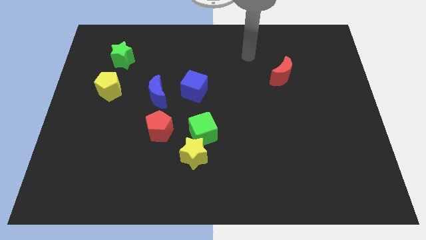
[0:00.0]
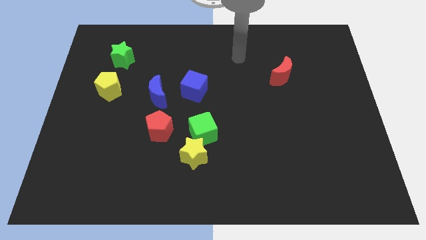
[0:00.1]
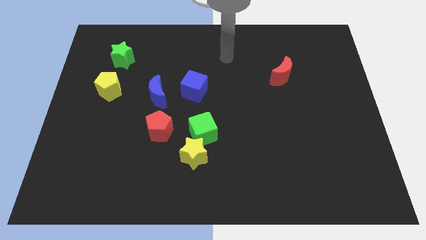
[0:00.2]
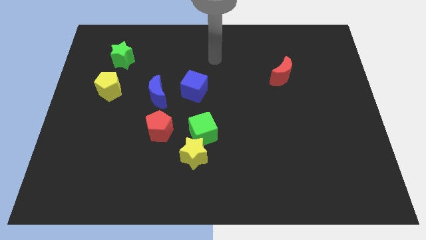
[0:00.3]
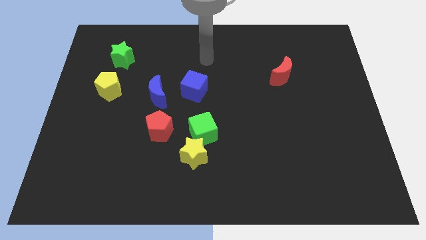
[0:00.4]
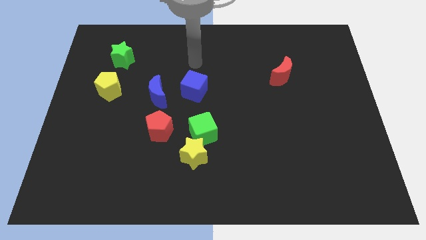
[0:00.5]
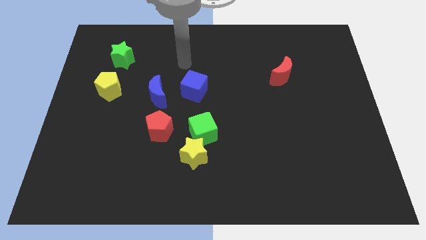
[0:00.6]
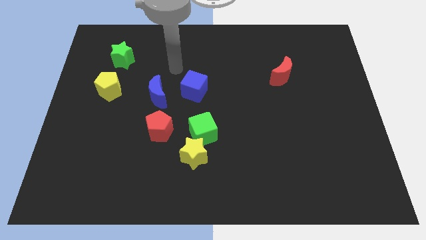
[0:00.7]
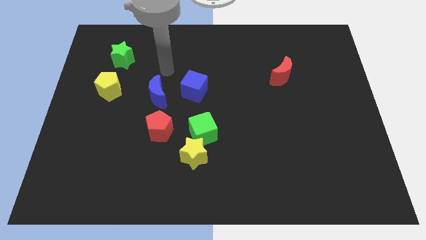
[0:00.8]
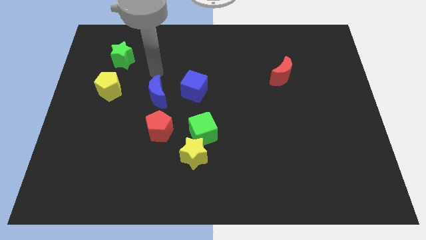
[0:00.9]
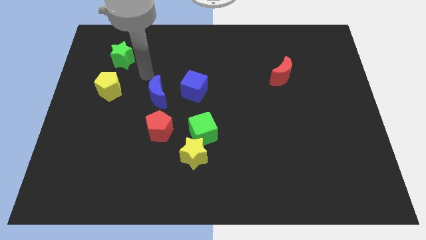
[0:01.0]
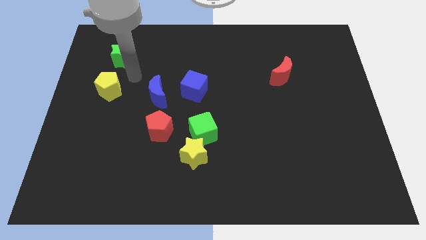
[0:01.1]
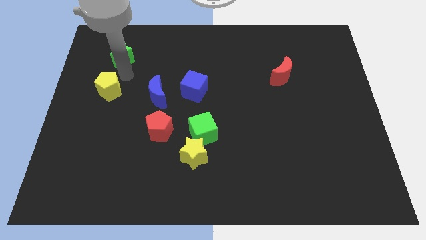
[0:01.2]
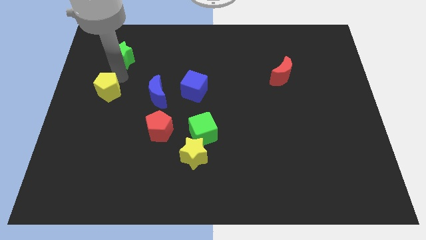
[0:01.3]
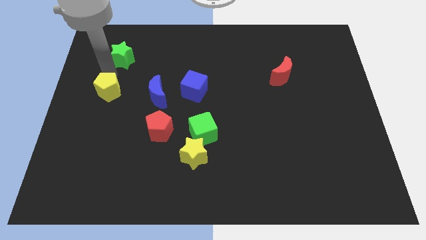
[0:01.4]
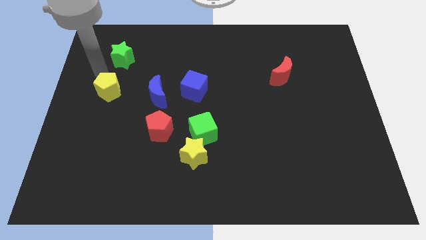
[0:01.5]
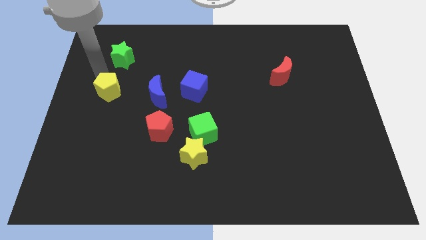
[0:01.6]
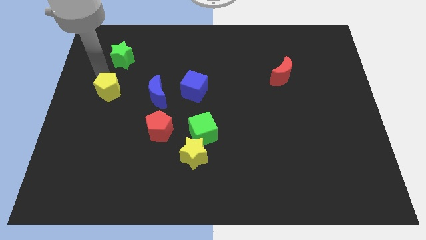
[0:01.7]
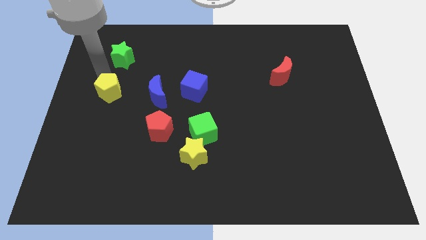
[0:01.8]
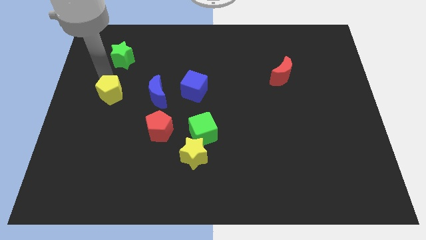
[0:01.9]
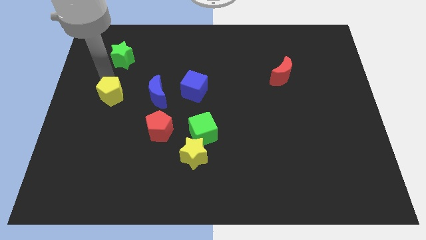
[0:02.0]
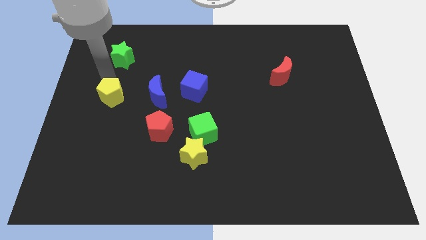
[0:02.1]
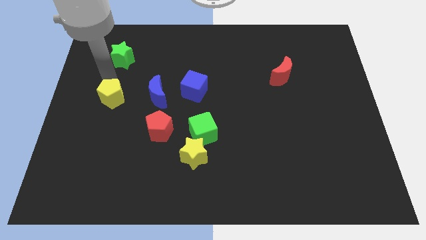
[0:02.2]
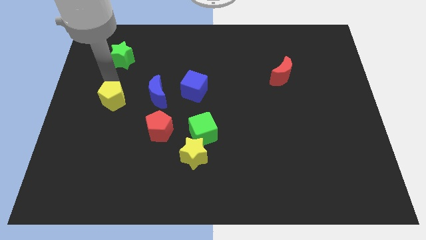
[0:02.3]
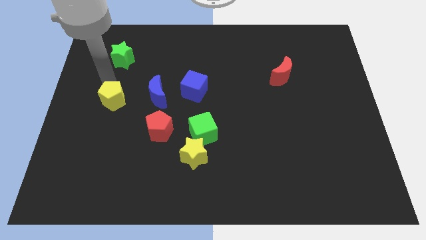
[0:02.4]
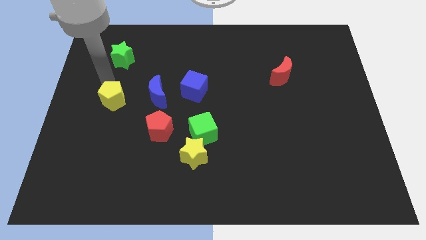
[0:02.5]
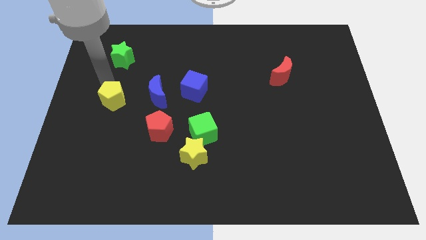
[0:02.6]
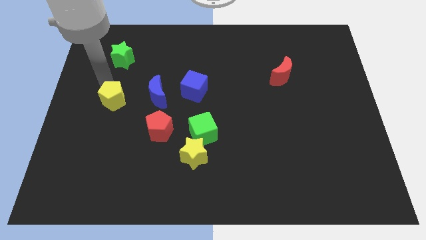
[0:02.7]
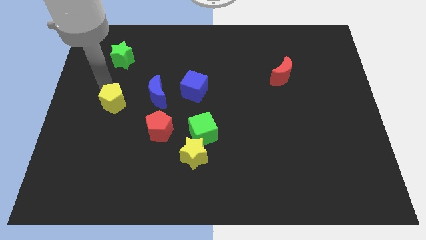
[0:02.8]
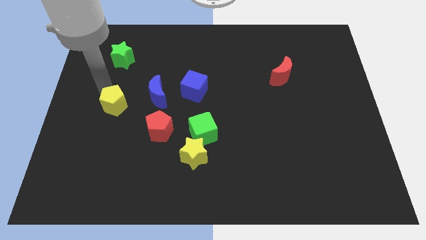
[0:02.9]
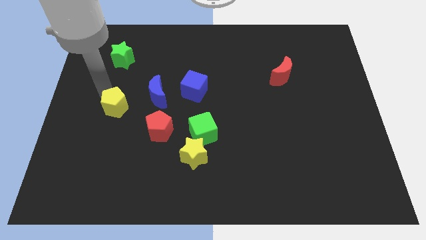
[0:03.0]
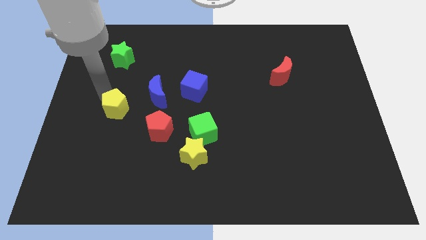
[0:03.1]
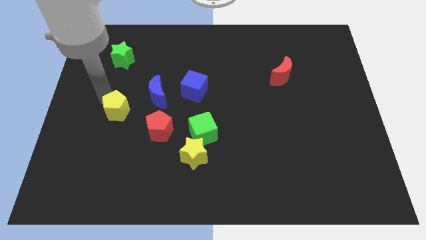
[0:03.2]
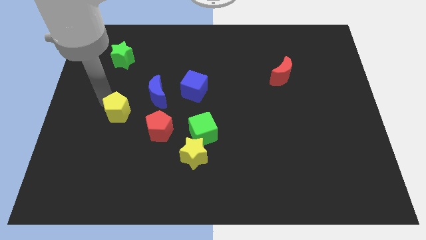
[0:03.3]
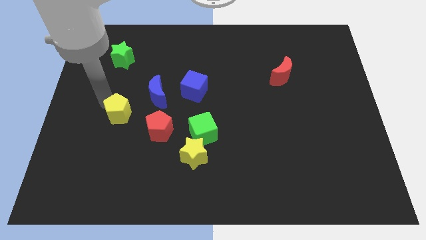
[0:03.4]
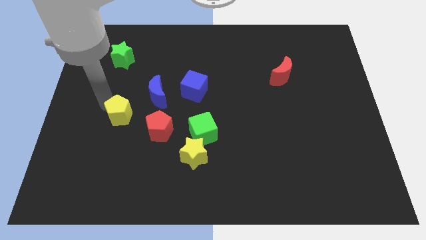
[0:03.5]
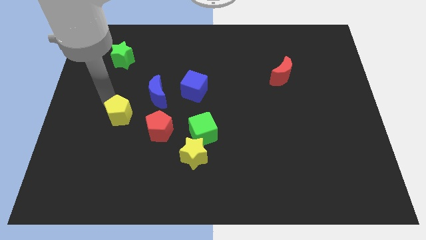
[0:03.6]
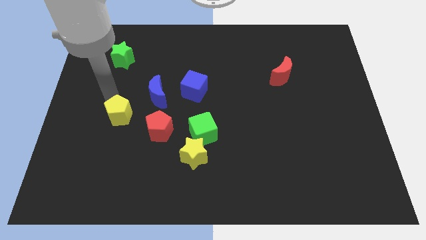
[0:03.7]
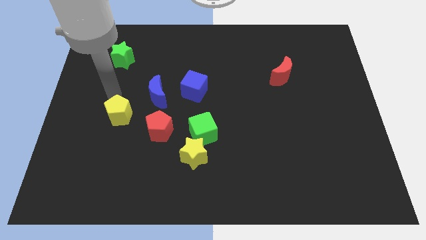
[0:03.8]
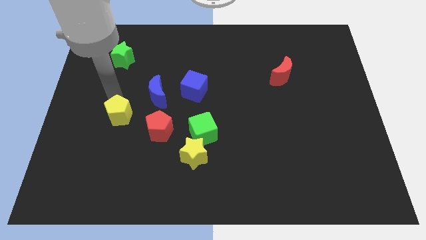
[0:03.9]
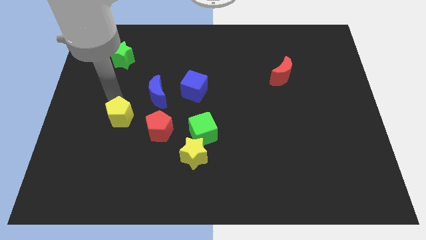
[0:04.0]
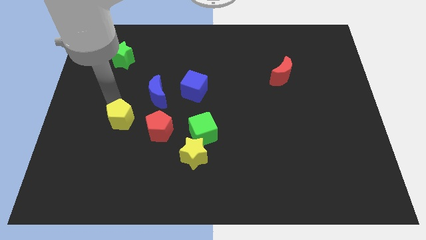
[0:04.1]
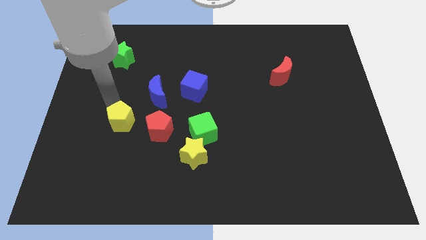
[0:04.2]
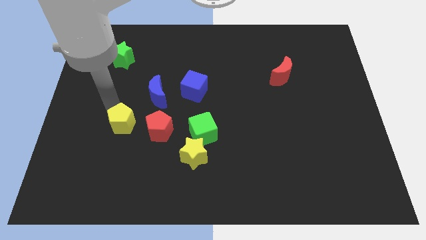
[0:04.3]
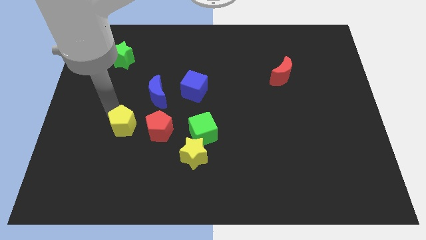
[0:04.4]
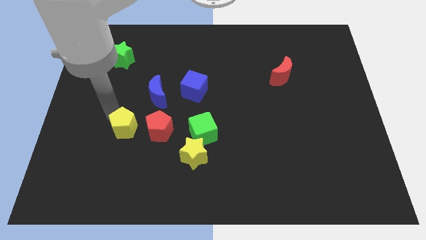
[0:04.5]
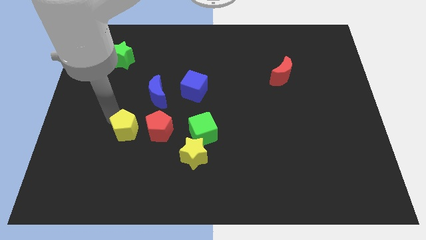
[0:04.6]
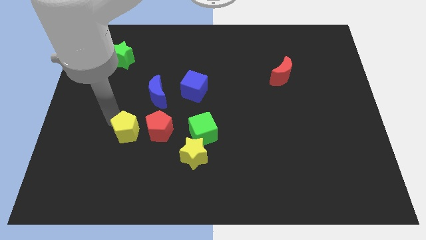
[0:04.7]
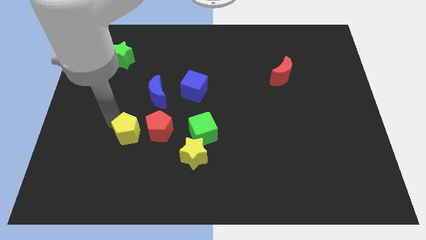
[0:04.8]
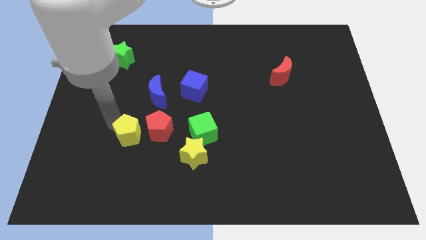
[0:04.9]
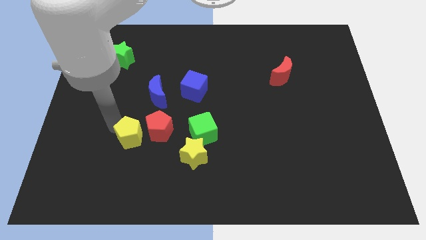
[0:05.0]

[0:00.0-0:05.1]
push the yellow pentagon below the blue moon

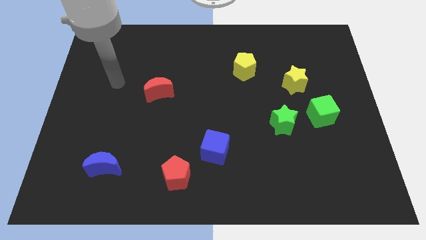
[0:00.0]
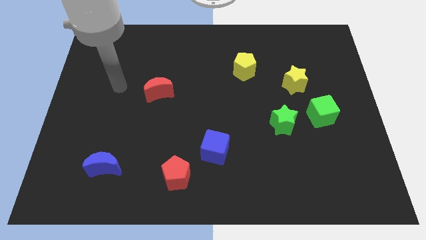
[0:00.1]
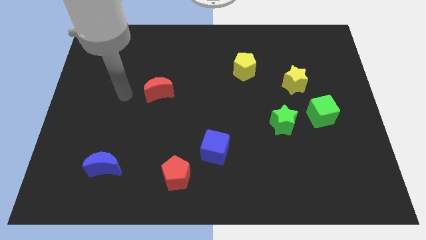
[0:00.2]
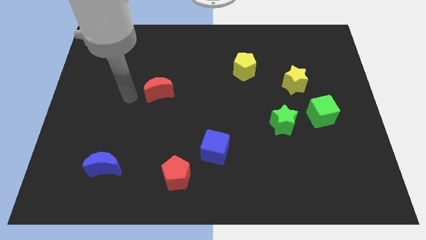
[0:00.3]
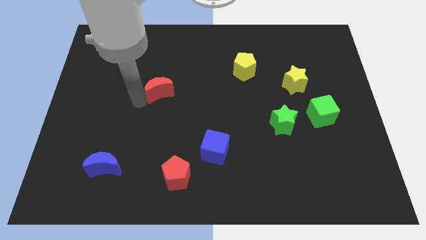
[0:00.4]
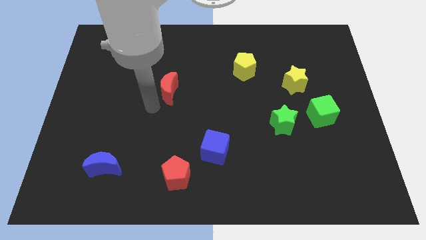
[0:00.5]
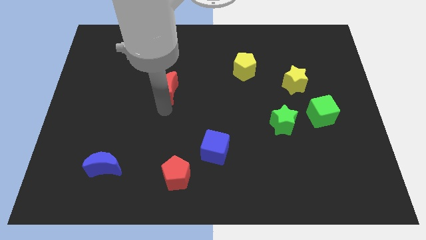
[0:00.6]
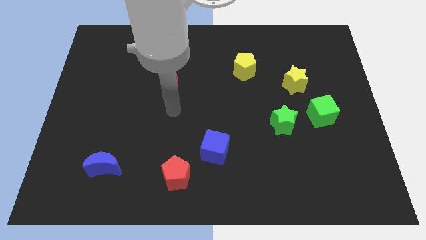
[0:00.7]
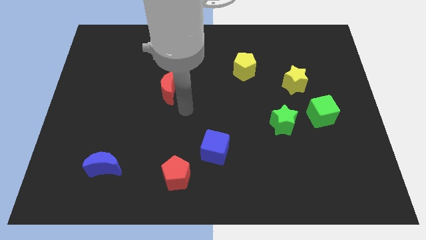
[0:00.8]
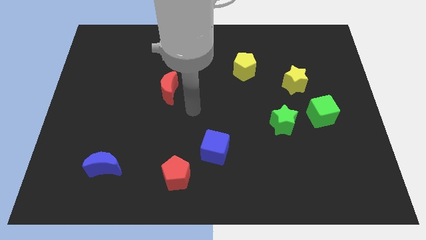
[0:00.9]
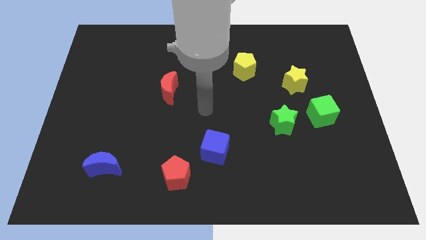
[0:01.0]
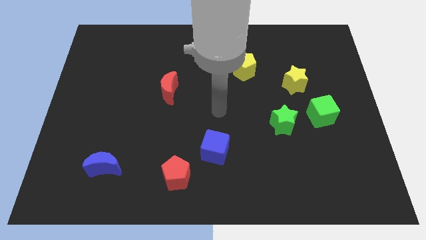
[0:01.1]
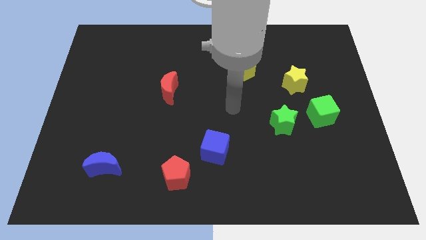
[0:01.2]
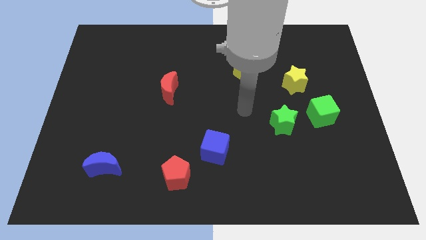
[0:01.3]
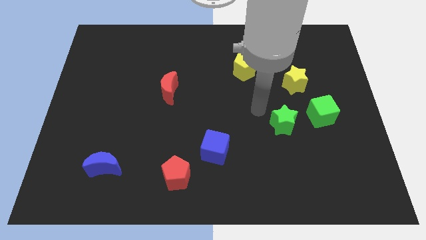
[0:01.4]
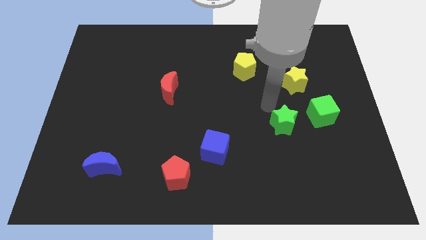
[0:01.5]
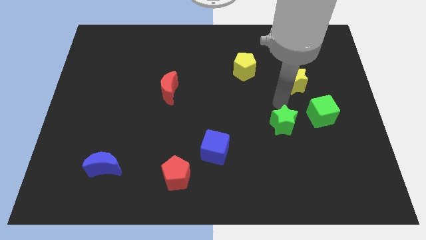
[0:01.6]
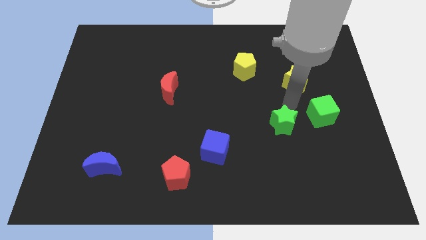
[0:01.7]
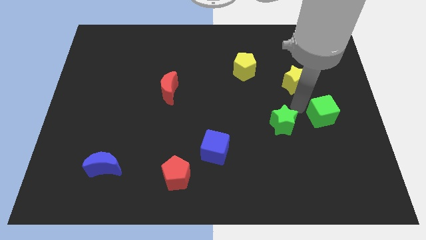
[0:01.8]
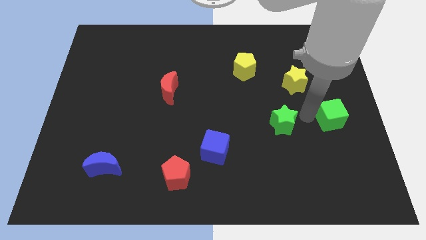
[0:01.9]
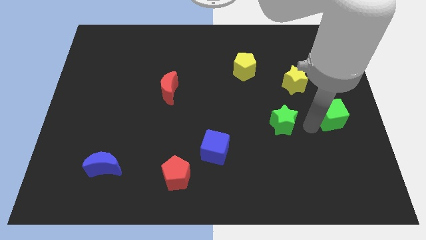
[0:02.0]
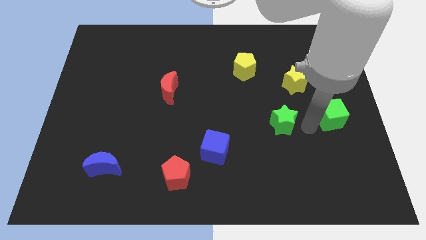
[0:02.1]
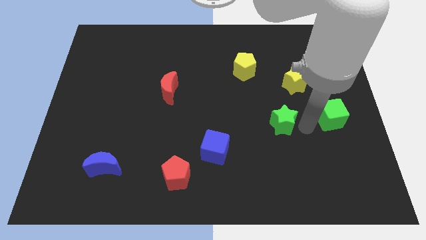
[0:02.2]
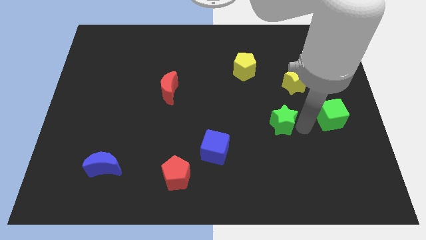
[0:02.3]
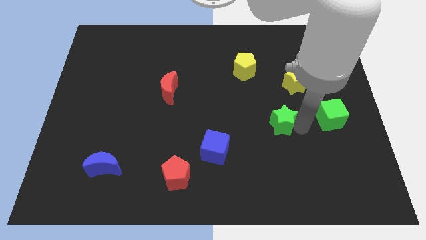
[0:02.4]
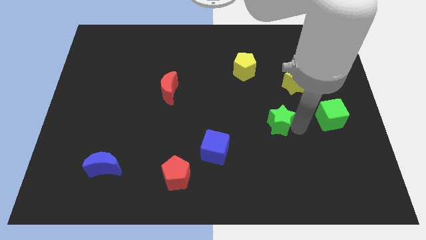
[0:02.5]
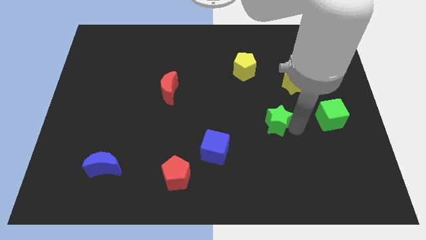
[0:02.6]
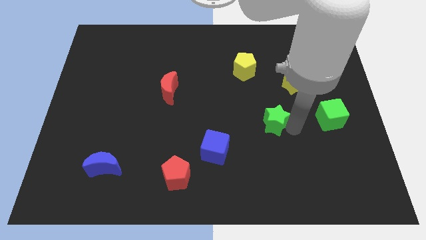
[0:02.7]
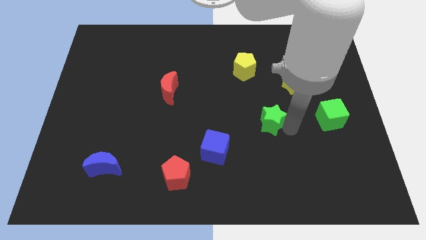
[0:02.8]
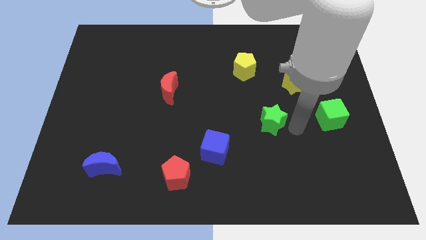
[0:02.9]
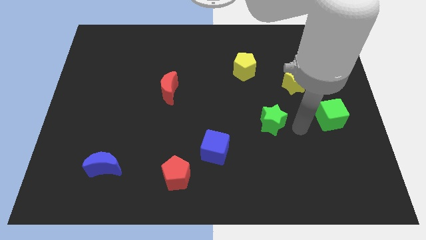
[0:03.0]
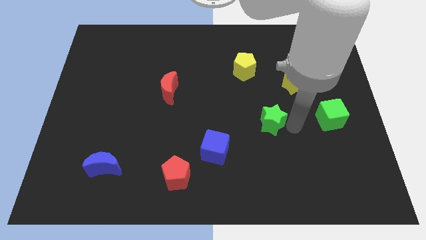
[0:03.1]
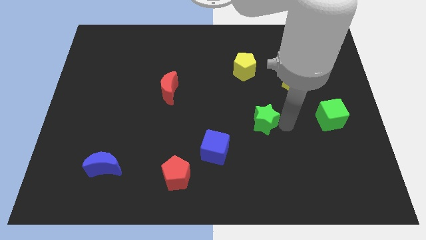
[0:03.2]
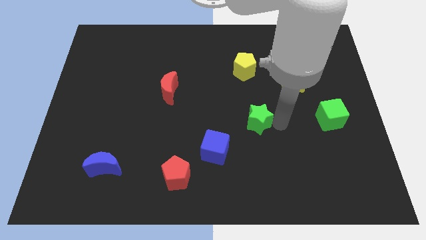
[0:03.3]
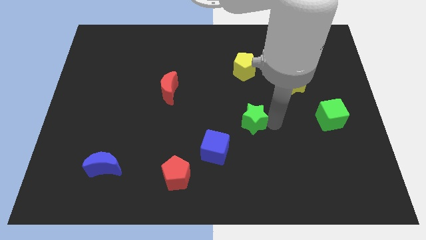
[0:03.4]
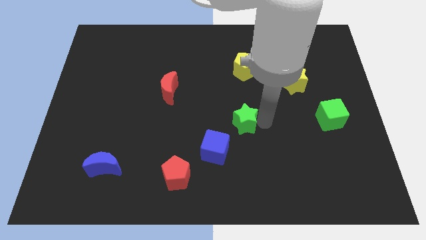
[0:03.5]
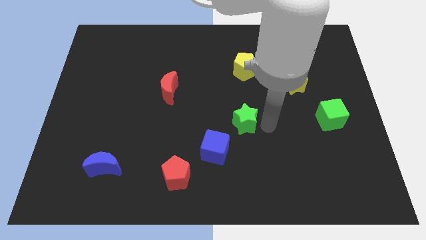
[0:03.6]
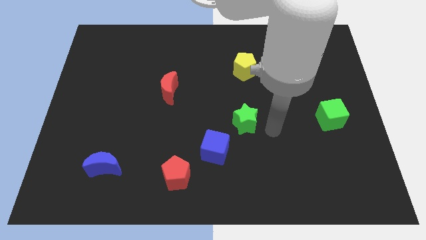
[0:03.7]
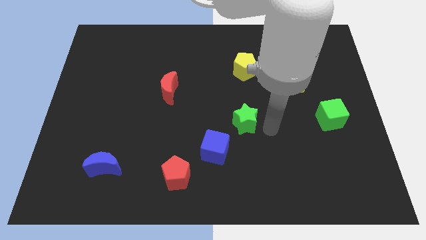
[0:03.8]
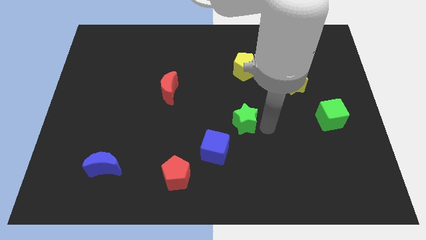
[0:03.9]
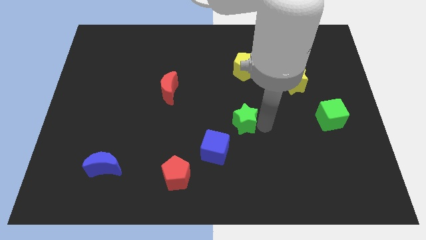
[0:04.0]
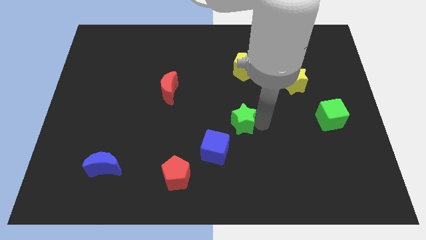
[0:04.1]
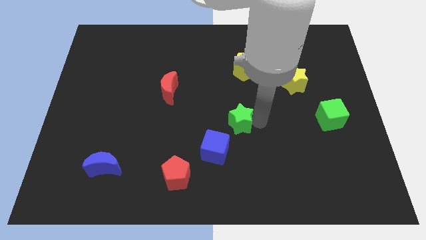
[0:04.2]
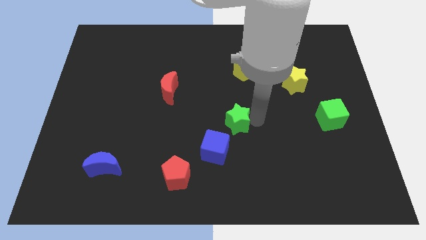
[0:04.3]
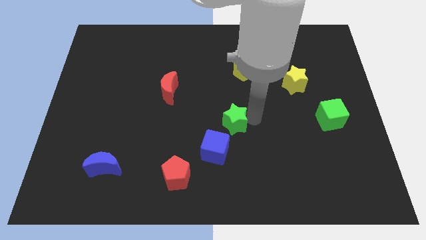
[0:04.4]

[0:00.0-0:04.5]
put the green star to the top side of the blue cube
